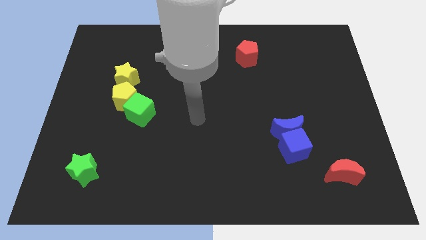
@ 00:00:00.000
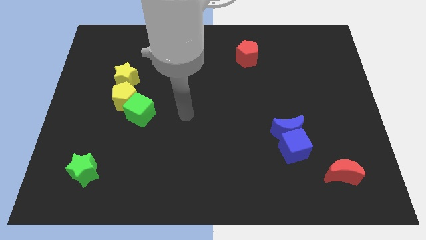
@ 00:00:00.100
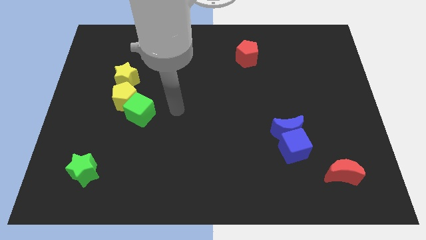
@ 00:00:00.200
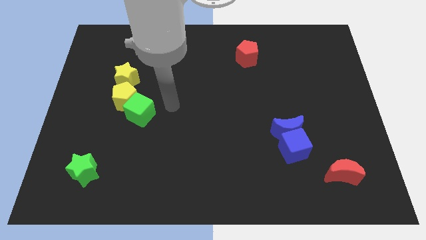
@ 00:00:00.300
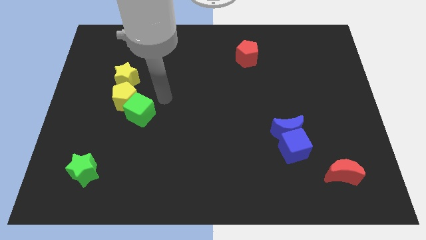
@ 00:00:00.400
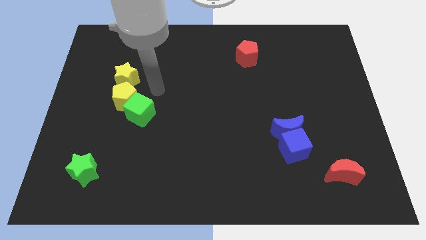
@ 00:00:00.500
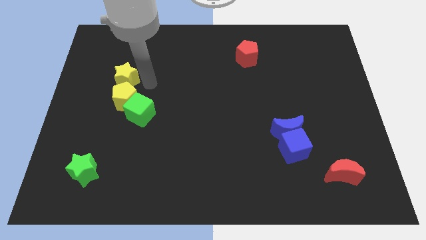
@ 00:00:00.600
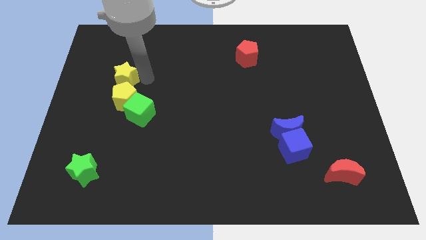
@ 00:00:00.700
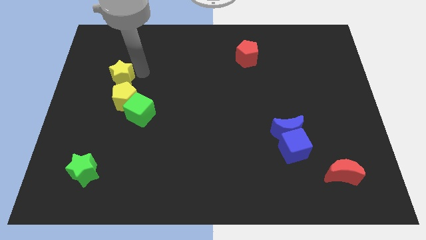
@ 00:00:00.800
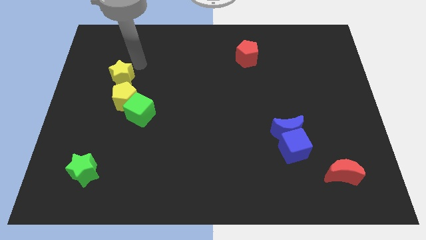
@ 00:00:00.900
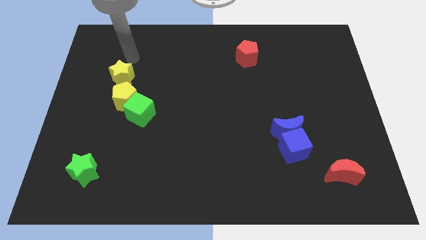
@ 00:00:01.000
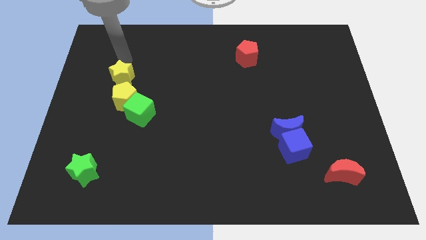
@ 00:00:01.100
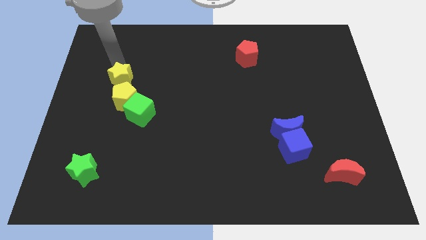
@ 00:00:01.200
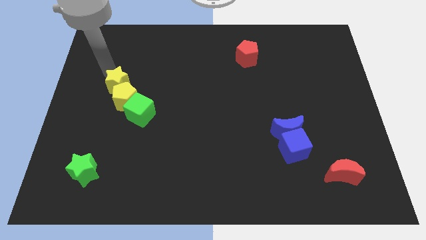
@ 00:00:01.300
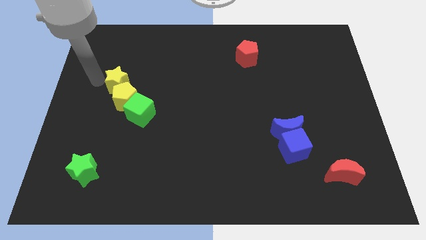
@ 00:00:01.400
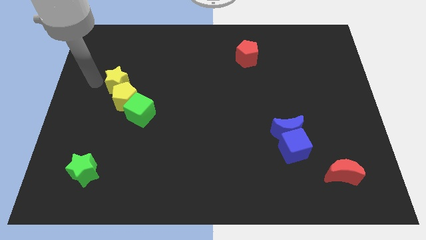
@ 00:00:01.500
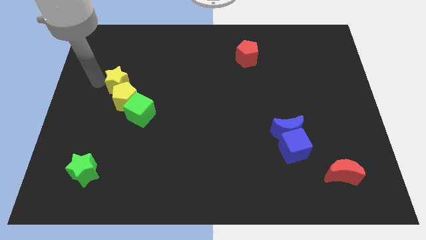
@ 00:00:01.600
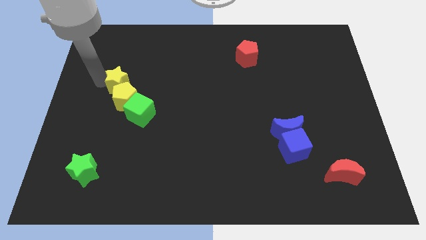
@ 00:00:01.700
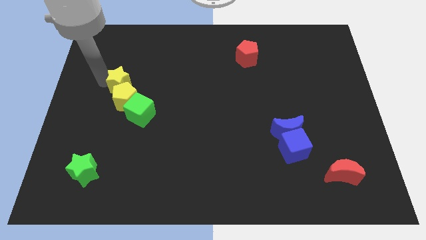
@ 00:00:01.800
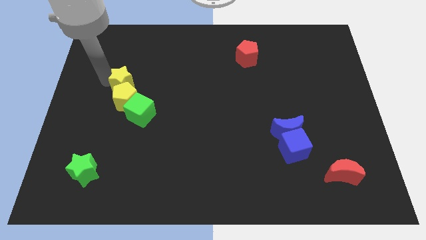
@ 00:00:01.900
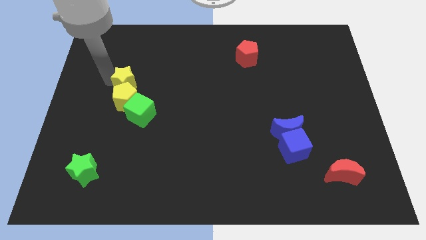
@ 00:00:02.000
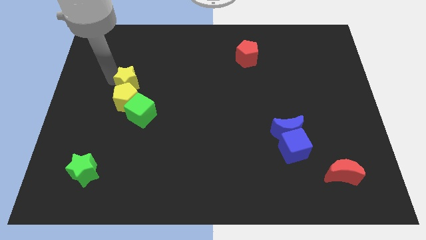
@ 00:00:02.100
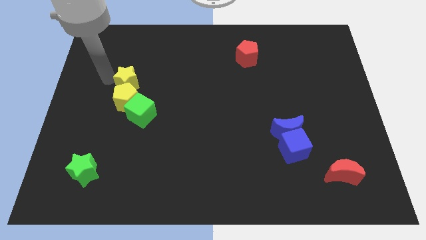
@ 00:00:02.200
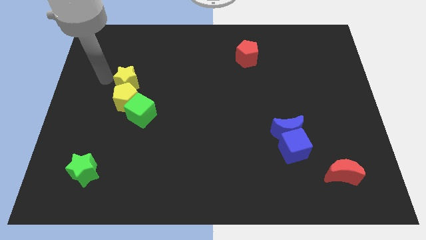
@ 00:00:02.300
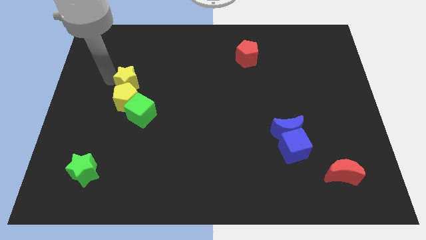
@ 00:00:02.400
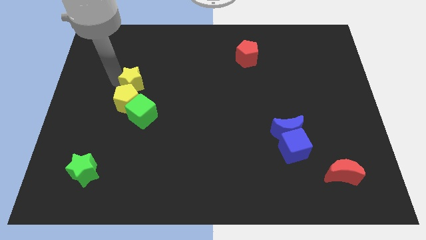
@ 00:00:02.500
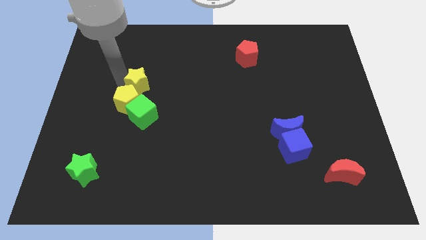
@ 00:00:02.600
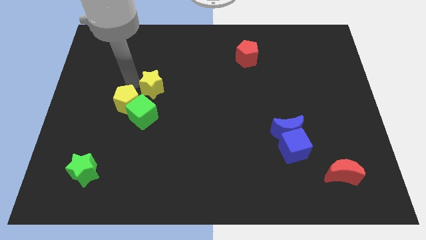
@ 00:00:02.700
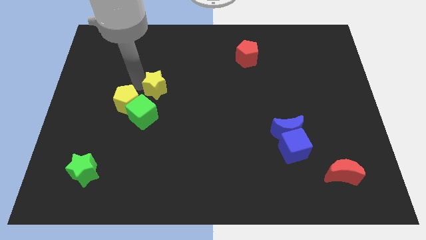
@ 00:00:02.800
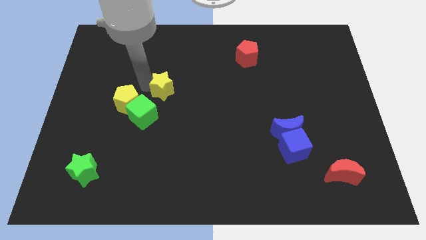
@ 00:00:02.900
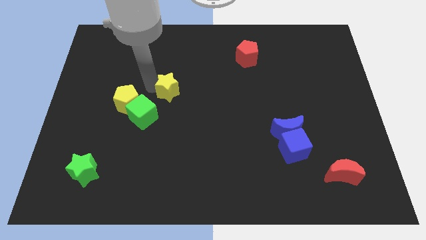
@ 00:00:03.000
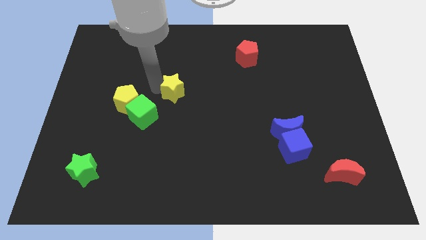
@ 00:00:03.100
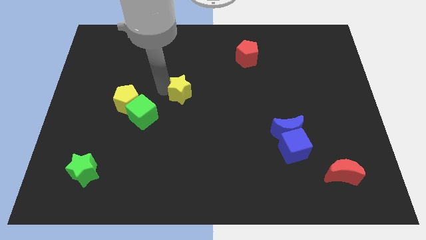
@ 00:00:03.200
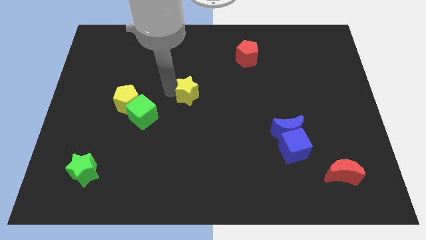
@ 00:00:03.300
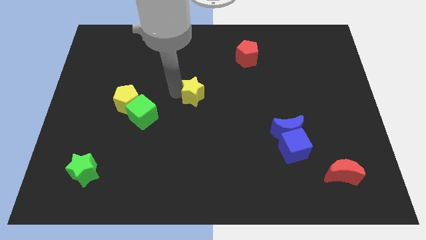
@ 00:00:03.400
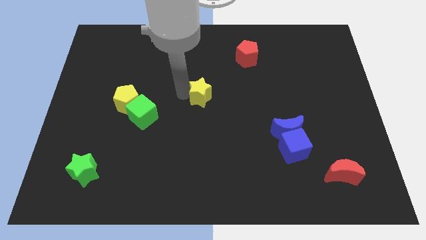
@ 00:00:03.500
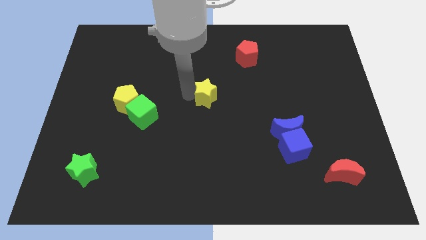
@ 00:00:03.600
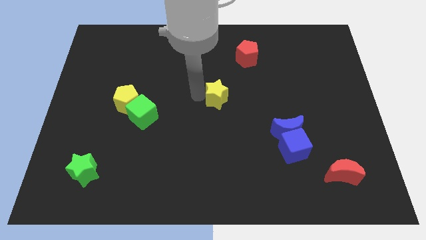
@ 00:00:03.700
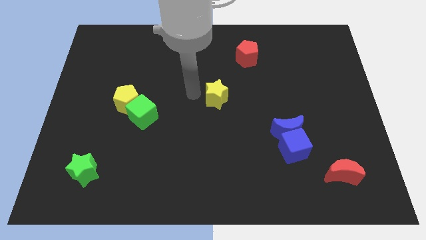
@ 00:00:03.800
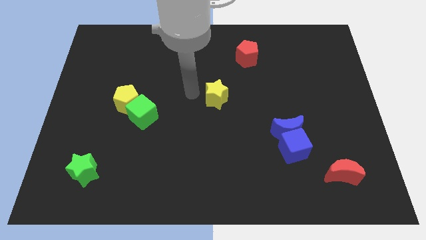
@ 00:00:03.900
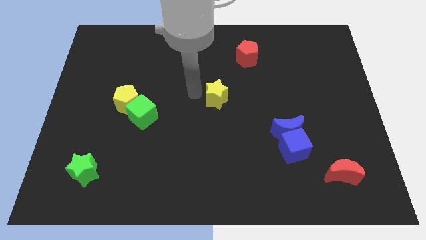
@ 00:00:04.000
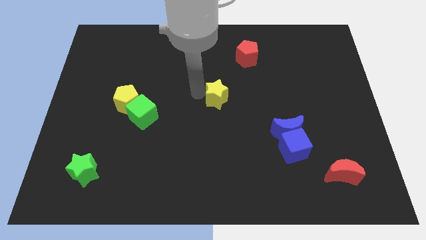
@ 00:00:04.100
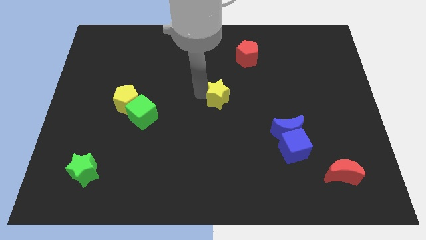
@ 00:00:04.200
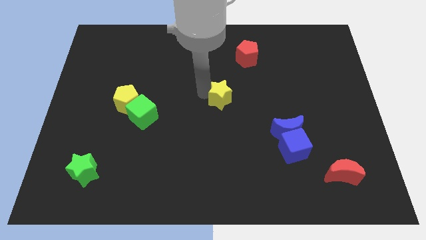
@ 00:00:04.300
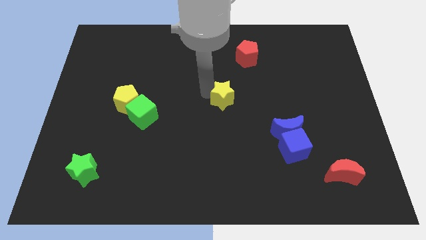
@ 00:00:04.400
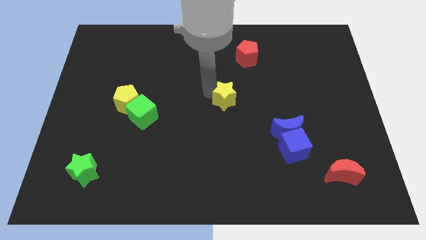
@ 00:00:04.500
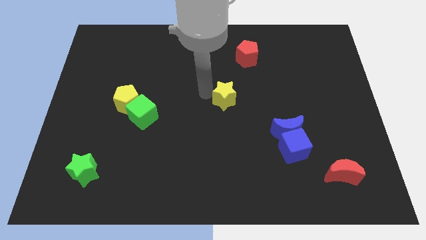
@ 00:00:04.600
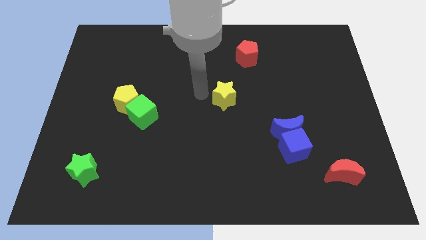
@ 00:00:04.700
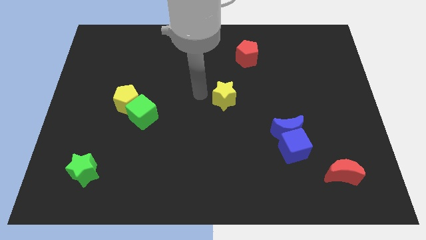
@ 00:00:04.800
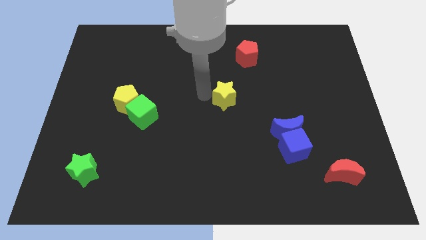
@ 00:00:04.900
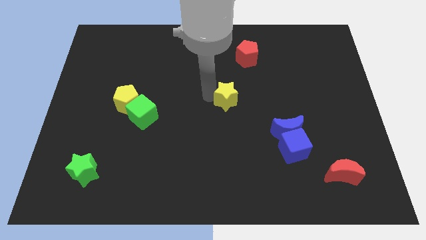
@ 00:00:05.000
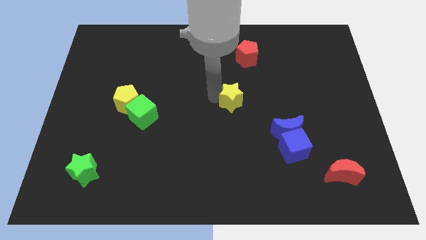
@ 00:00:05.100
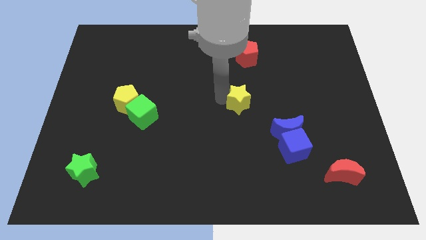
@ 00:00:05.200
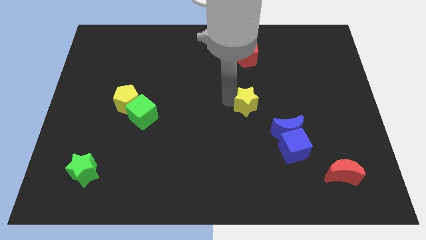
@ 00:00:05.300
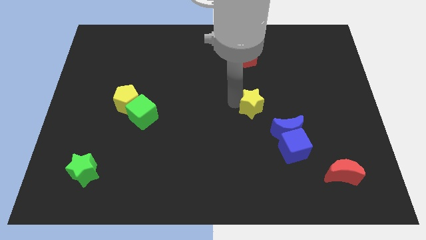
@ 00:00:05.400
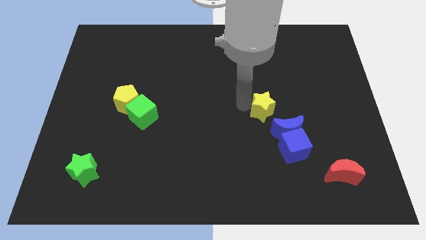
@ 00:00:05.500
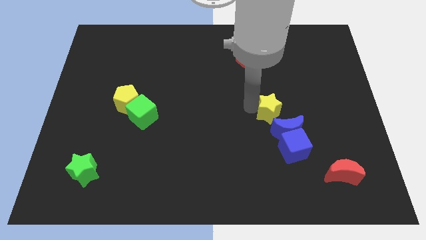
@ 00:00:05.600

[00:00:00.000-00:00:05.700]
put the yellow star to the top of the blue cube

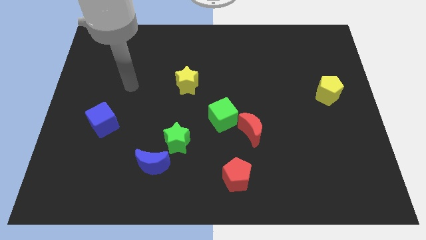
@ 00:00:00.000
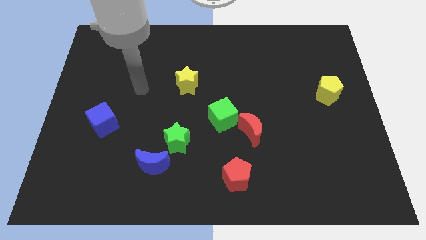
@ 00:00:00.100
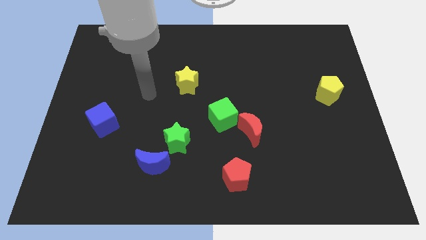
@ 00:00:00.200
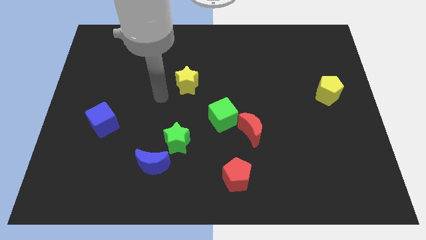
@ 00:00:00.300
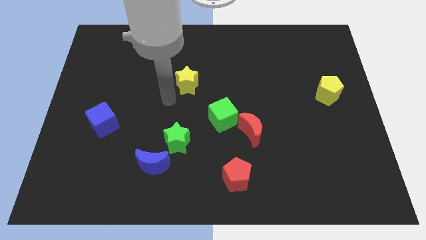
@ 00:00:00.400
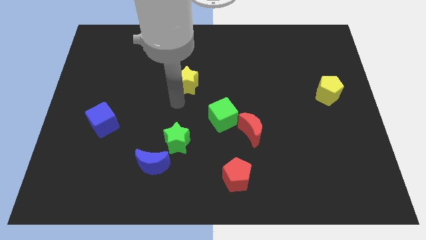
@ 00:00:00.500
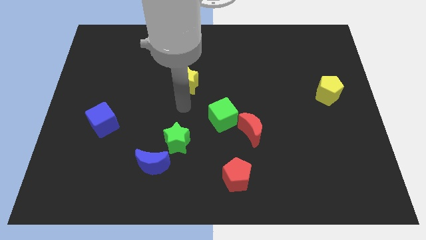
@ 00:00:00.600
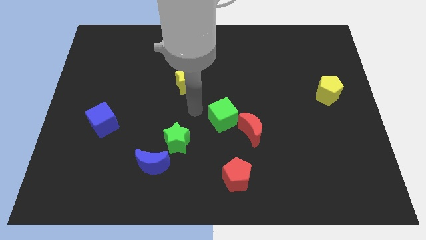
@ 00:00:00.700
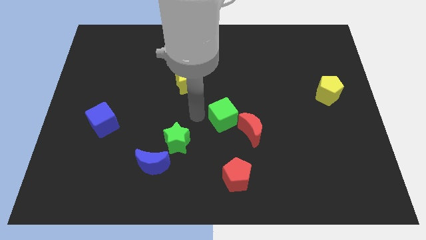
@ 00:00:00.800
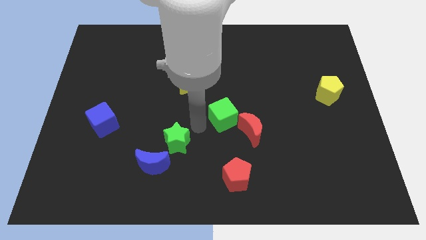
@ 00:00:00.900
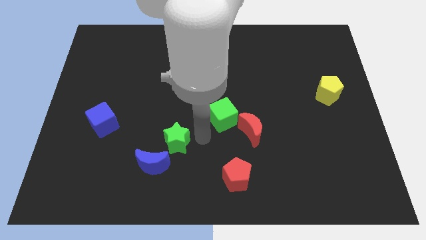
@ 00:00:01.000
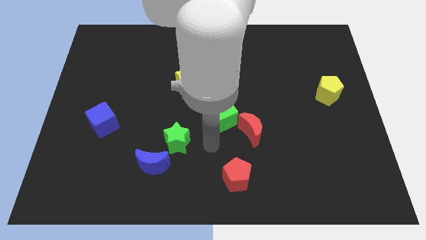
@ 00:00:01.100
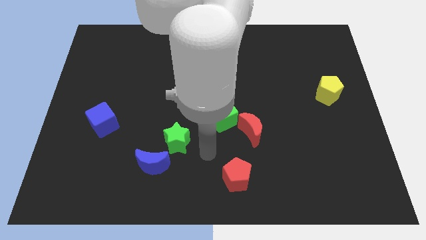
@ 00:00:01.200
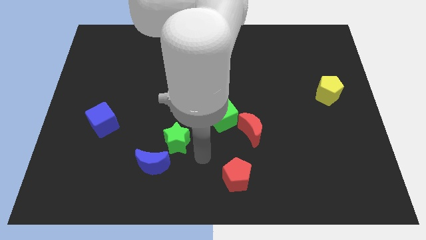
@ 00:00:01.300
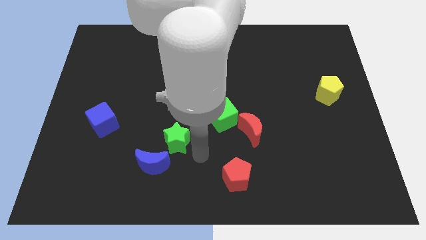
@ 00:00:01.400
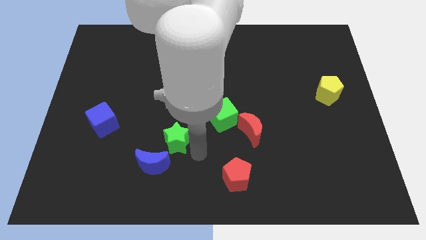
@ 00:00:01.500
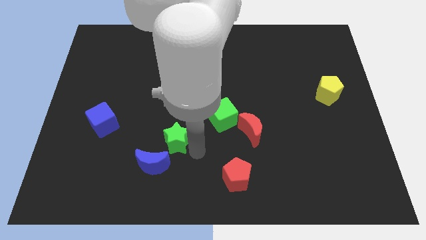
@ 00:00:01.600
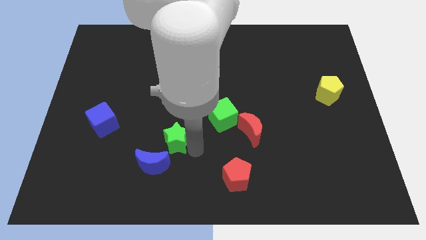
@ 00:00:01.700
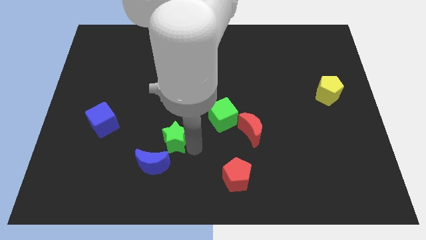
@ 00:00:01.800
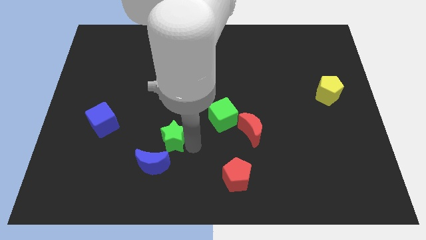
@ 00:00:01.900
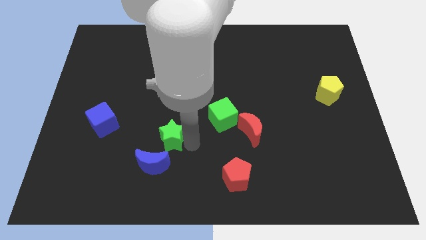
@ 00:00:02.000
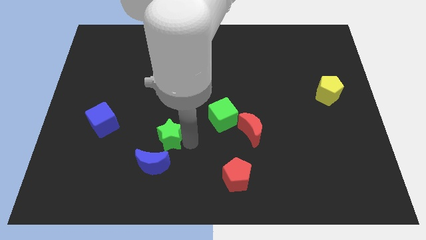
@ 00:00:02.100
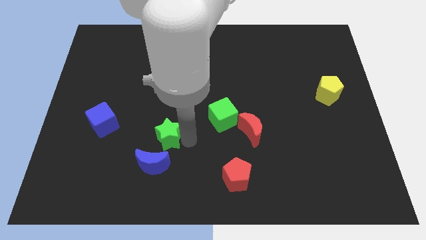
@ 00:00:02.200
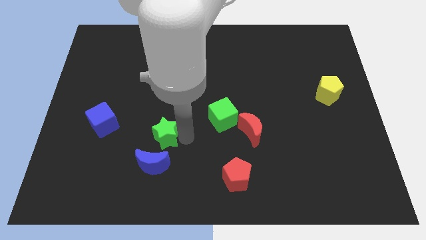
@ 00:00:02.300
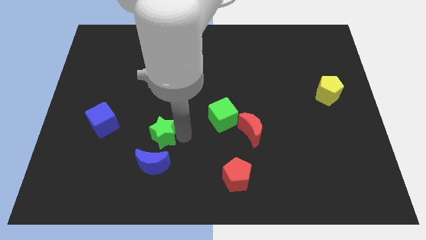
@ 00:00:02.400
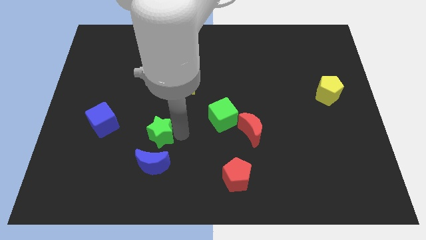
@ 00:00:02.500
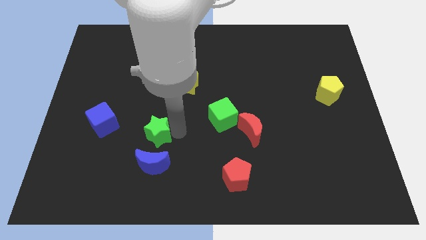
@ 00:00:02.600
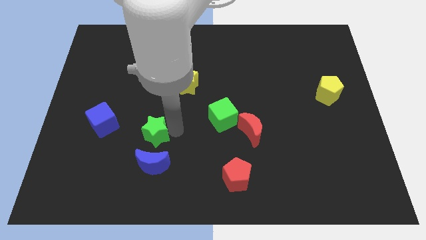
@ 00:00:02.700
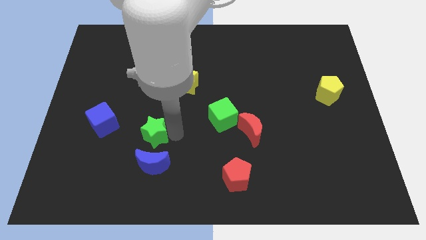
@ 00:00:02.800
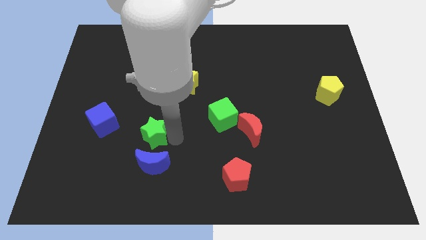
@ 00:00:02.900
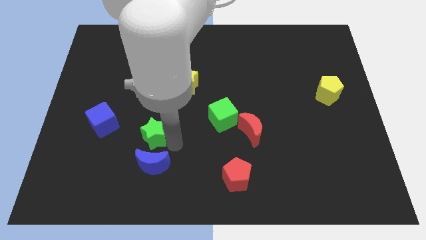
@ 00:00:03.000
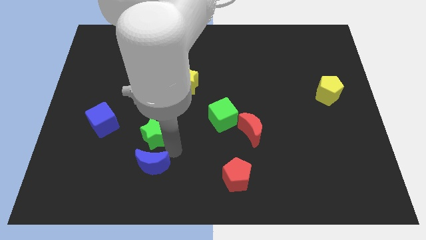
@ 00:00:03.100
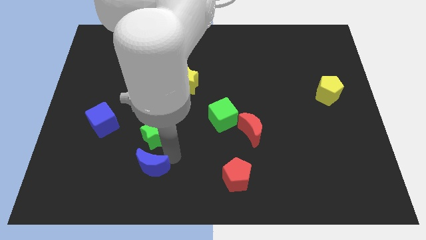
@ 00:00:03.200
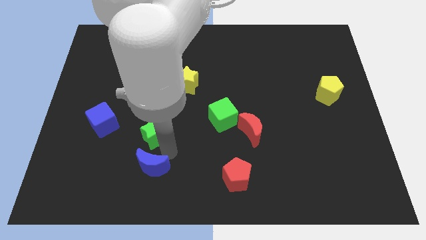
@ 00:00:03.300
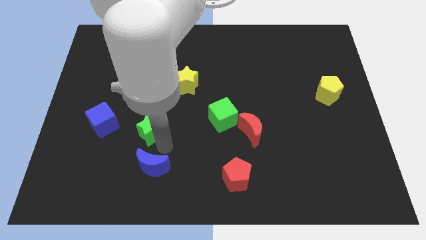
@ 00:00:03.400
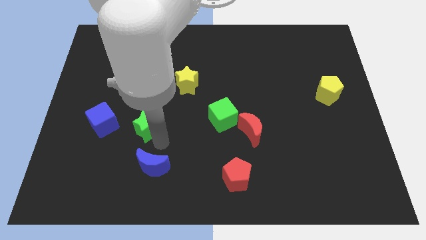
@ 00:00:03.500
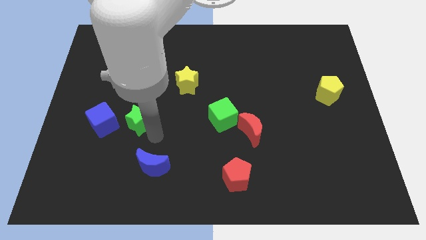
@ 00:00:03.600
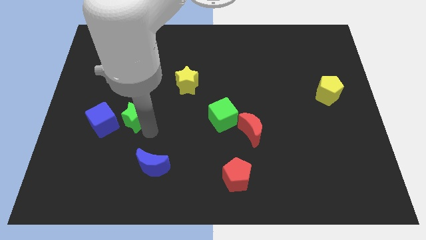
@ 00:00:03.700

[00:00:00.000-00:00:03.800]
slide the green star to the top right side of the blue cube
